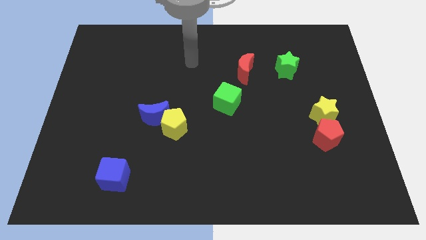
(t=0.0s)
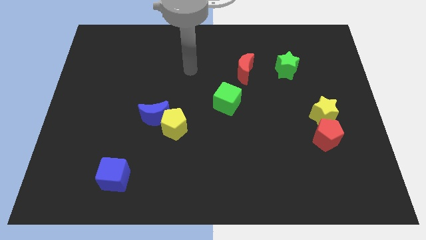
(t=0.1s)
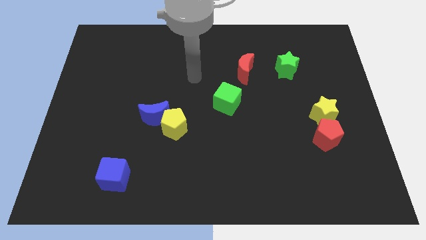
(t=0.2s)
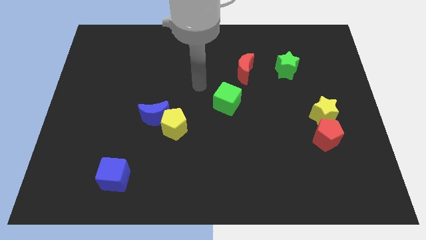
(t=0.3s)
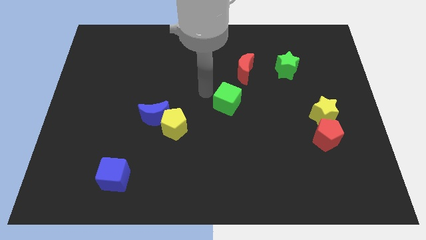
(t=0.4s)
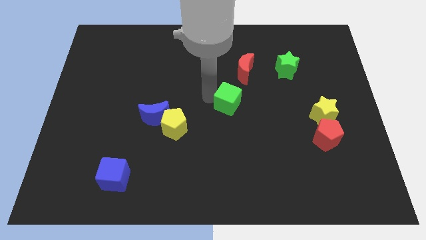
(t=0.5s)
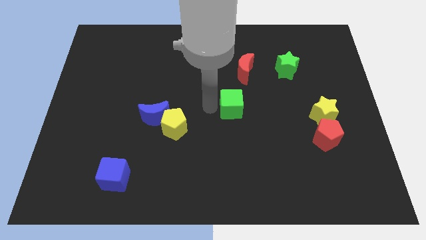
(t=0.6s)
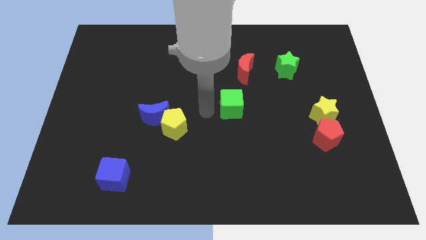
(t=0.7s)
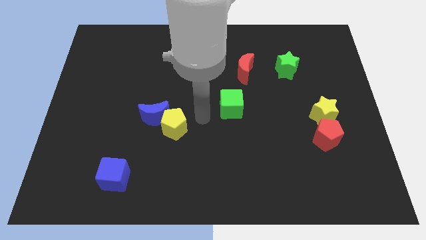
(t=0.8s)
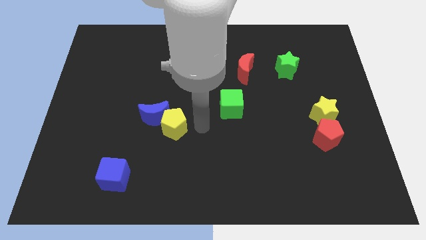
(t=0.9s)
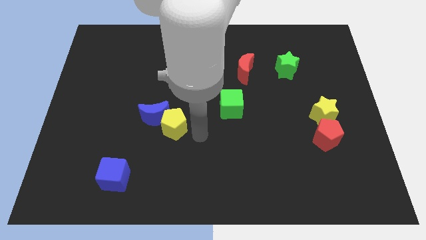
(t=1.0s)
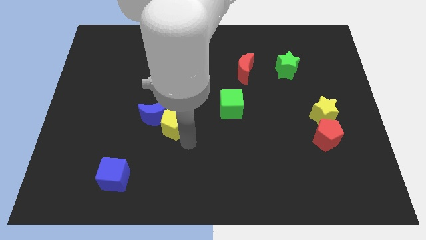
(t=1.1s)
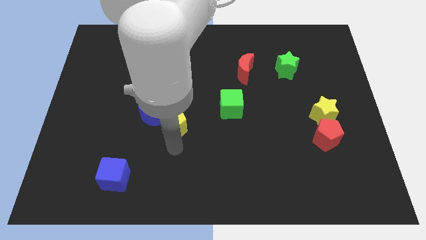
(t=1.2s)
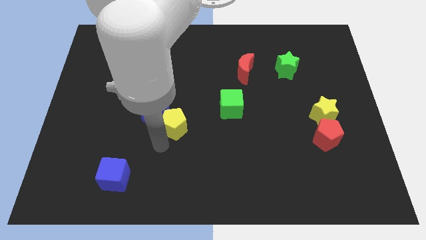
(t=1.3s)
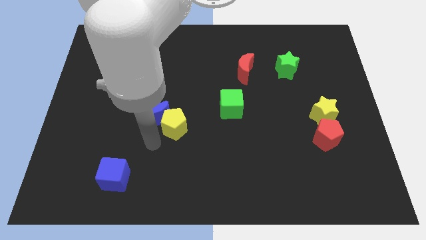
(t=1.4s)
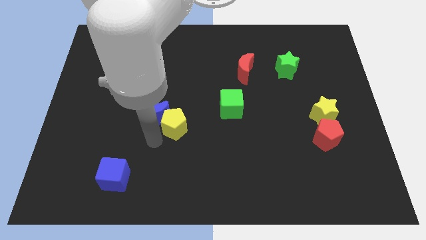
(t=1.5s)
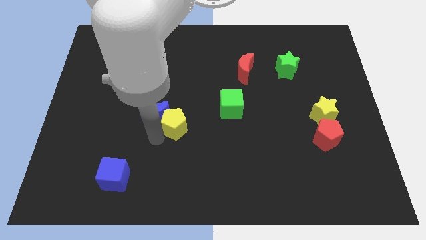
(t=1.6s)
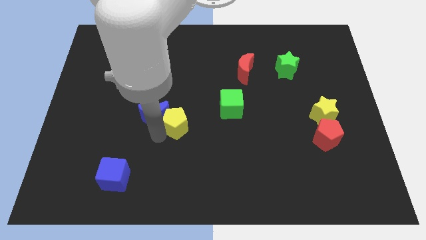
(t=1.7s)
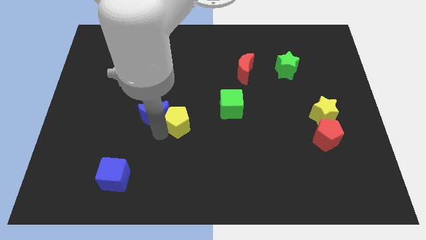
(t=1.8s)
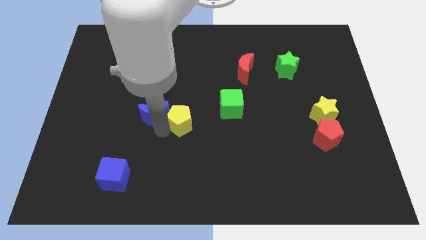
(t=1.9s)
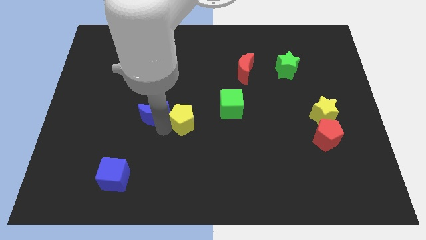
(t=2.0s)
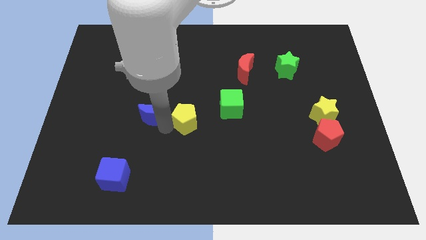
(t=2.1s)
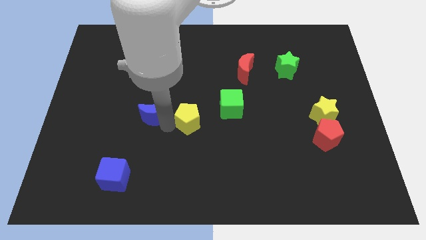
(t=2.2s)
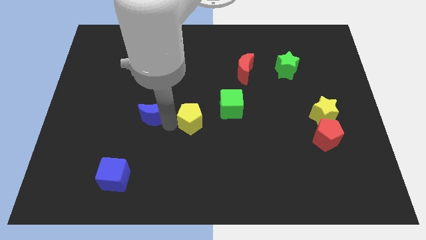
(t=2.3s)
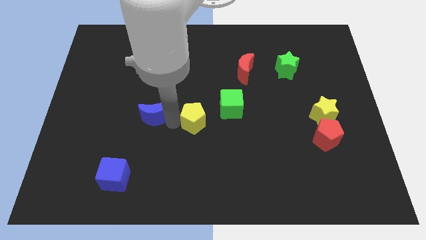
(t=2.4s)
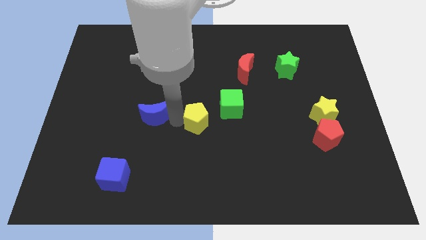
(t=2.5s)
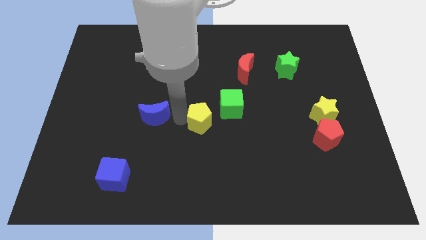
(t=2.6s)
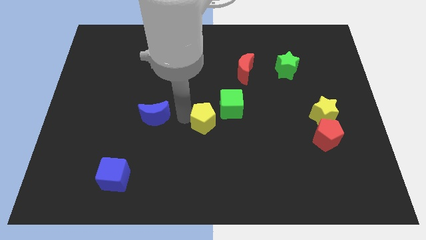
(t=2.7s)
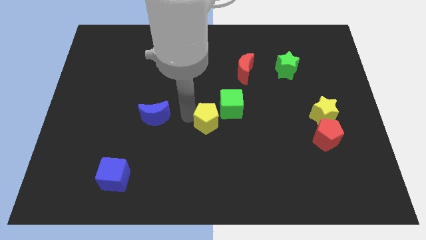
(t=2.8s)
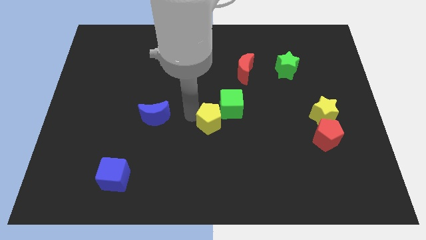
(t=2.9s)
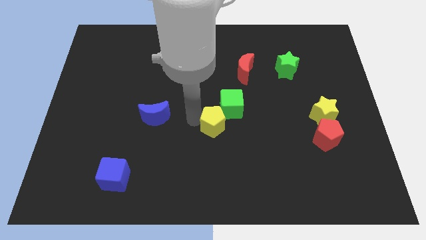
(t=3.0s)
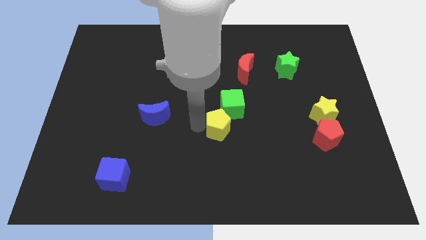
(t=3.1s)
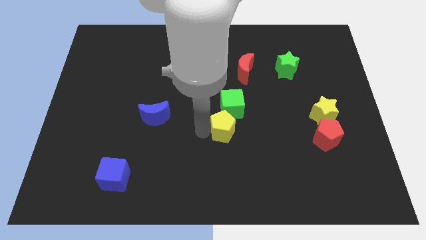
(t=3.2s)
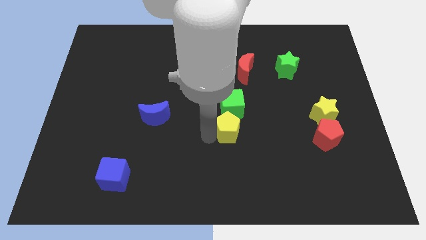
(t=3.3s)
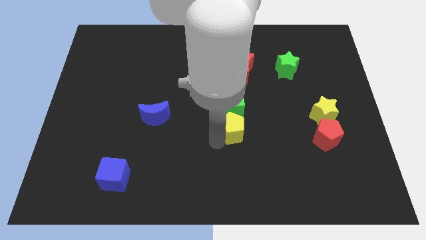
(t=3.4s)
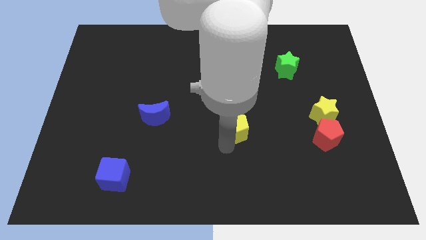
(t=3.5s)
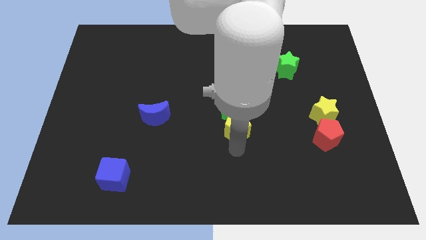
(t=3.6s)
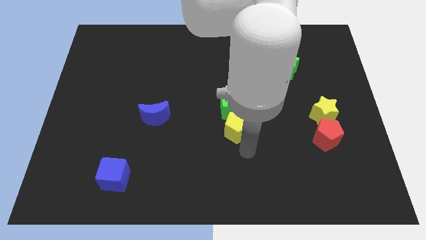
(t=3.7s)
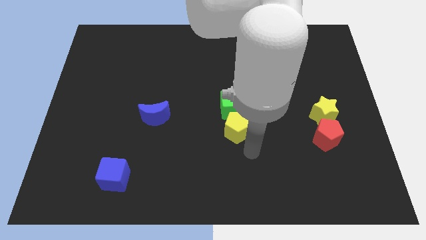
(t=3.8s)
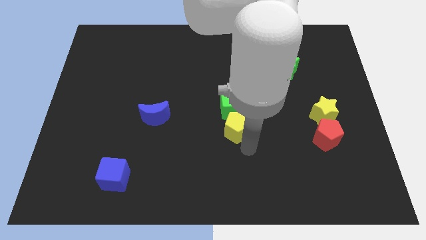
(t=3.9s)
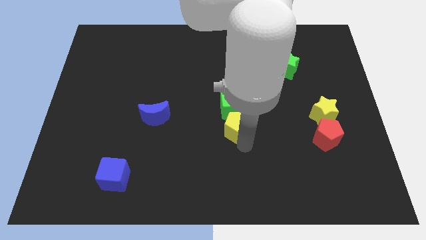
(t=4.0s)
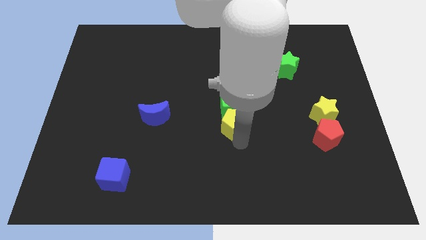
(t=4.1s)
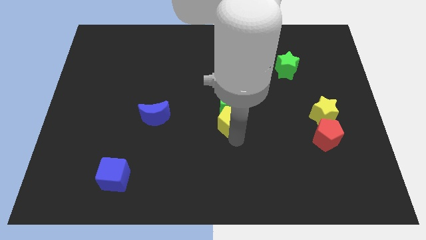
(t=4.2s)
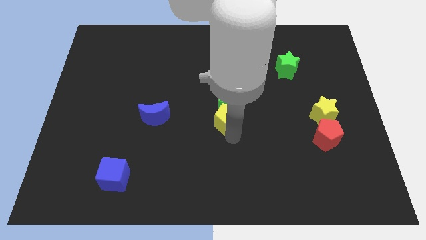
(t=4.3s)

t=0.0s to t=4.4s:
slightly push the yellow pentagon upwards and to the right diagonally

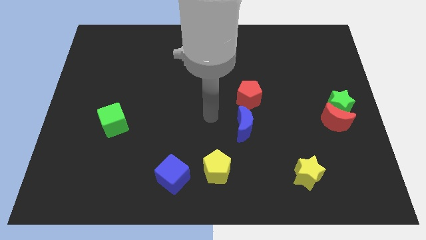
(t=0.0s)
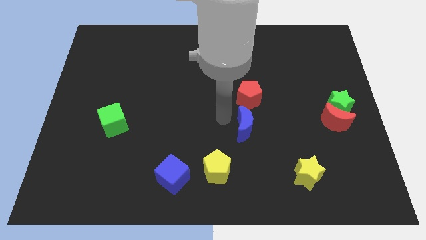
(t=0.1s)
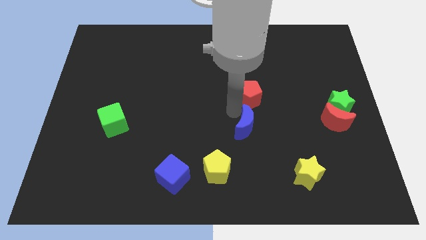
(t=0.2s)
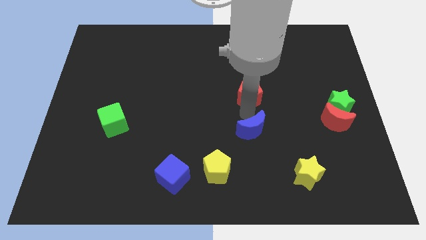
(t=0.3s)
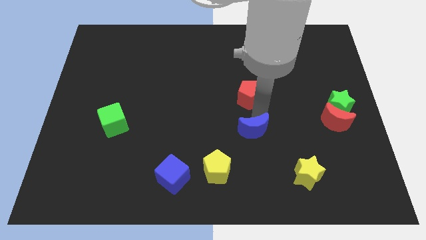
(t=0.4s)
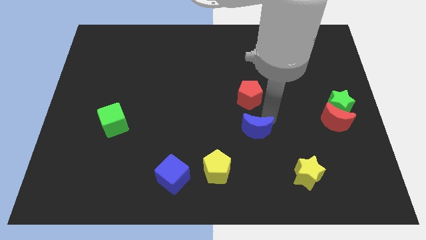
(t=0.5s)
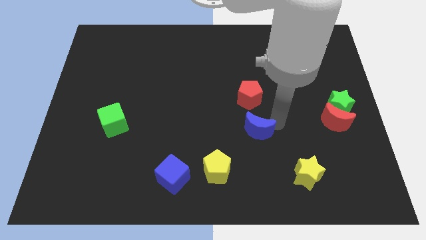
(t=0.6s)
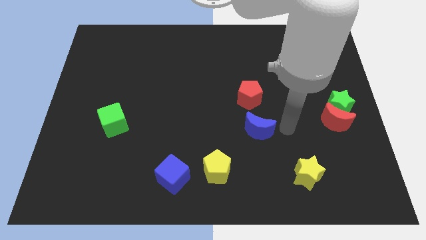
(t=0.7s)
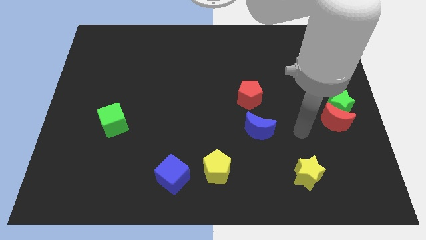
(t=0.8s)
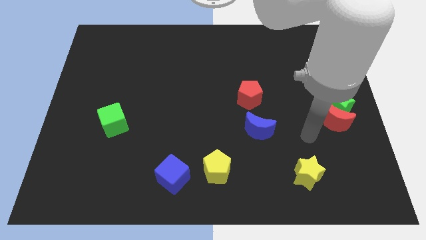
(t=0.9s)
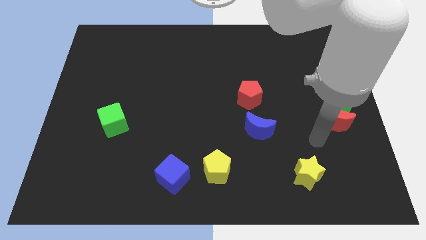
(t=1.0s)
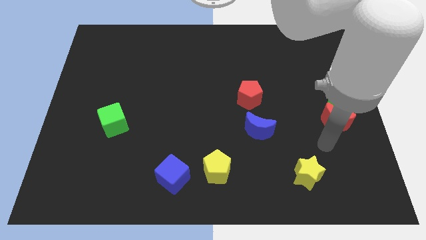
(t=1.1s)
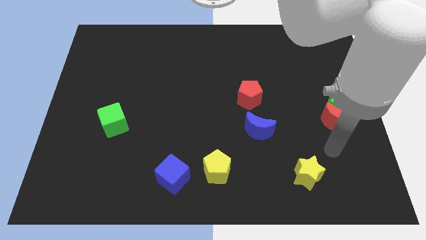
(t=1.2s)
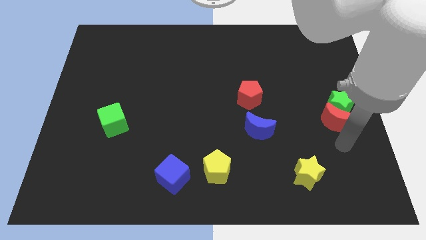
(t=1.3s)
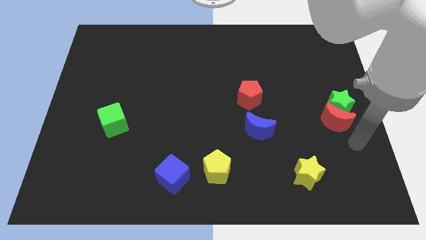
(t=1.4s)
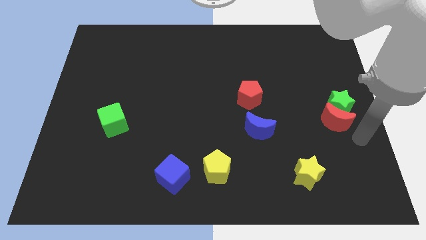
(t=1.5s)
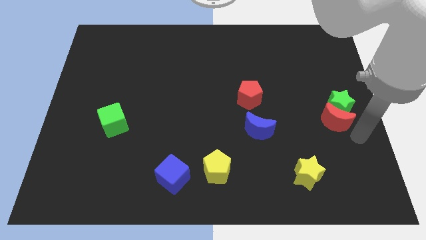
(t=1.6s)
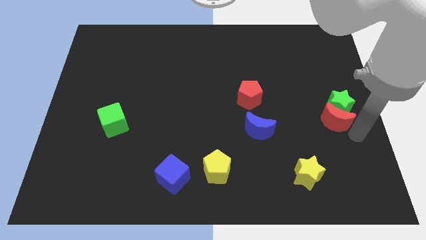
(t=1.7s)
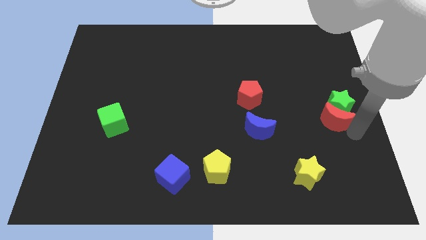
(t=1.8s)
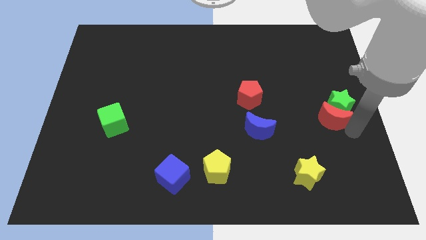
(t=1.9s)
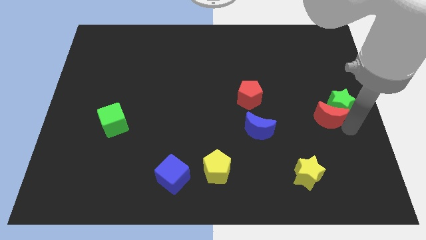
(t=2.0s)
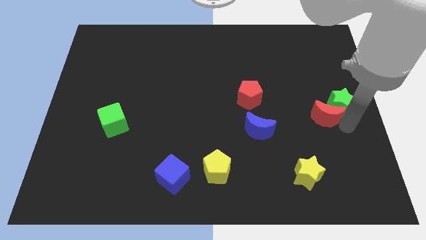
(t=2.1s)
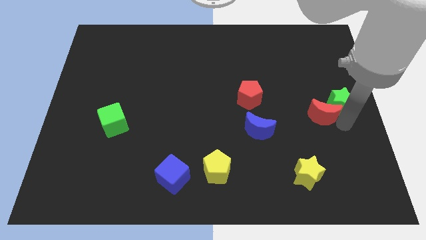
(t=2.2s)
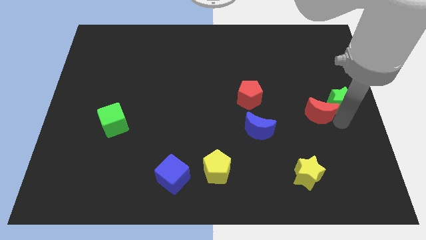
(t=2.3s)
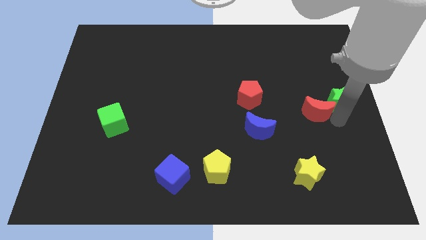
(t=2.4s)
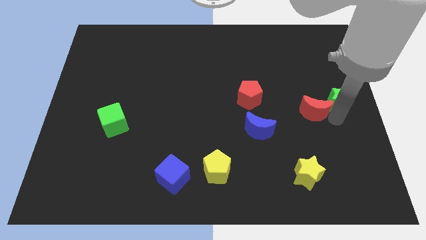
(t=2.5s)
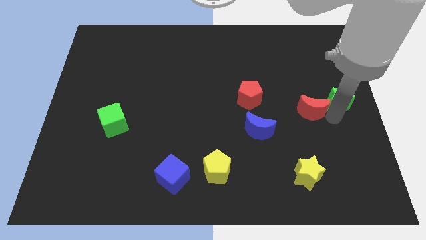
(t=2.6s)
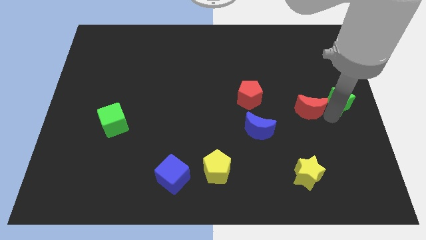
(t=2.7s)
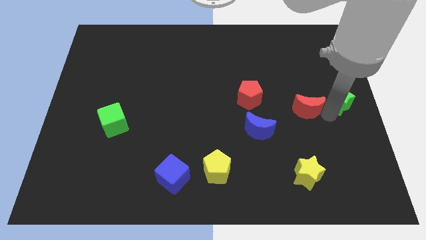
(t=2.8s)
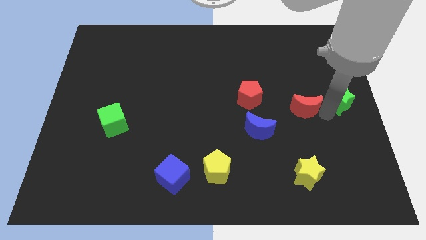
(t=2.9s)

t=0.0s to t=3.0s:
slide the red moon a little up and to the left
